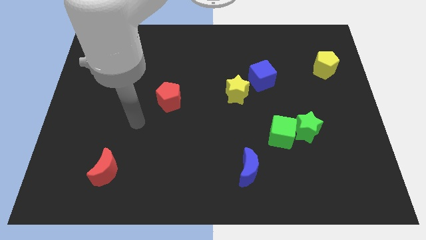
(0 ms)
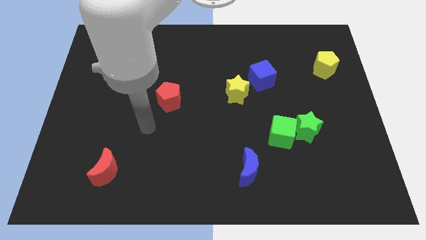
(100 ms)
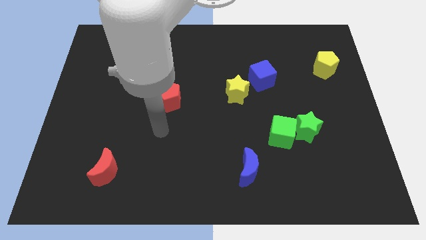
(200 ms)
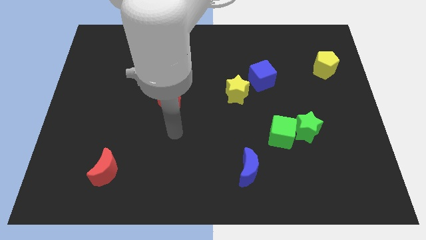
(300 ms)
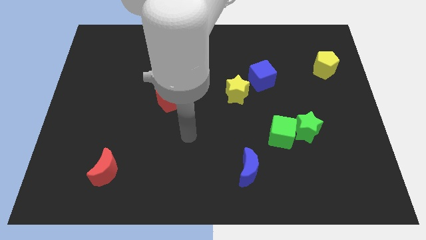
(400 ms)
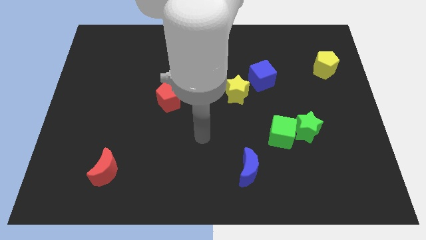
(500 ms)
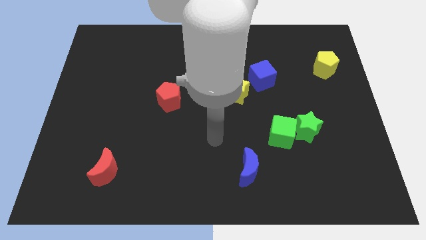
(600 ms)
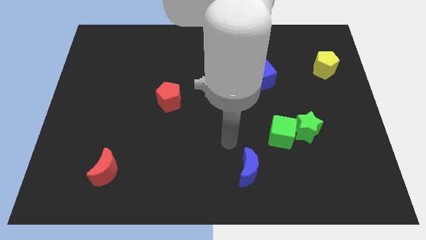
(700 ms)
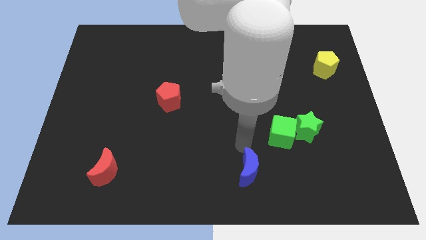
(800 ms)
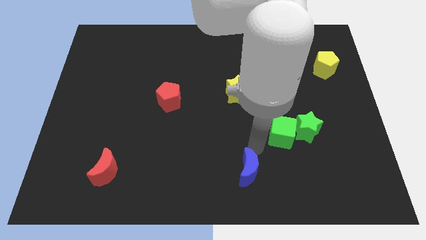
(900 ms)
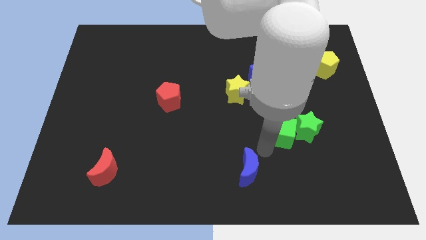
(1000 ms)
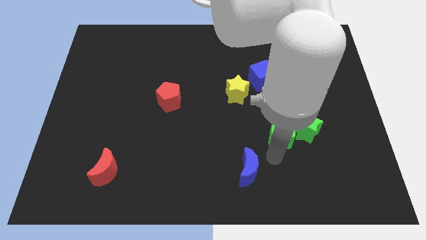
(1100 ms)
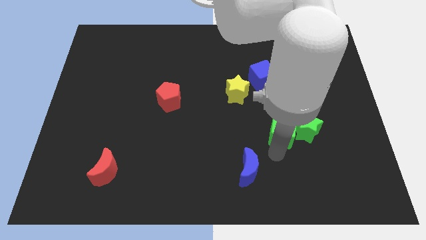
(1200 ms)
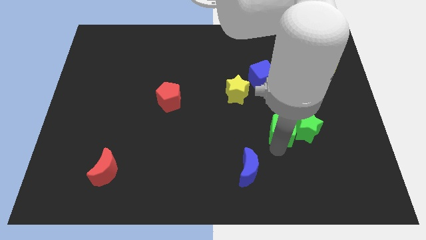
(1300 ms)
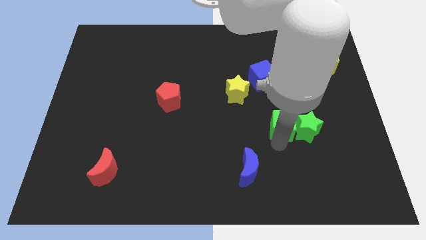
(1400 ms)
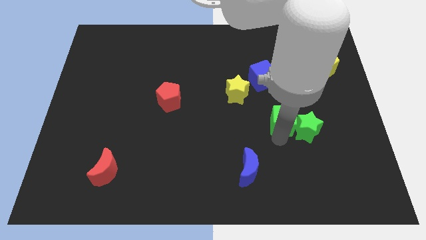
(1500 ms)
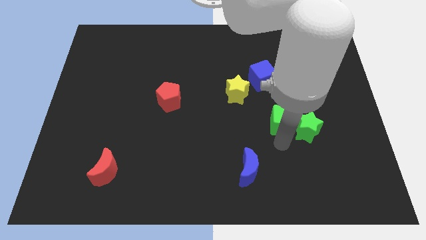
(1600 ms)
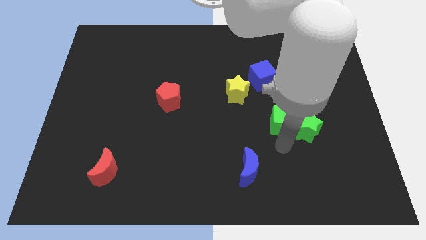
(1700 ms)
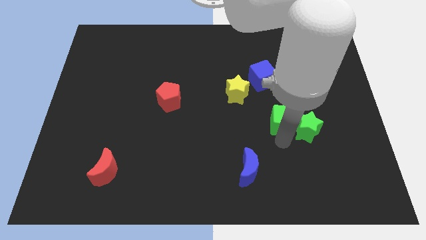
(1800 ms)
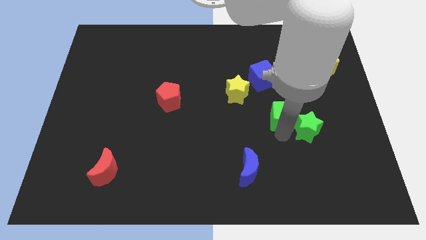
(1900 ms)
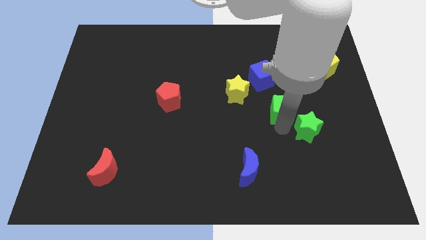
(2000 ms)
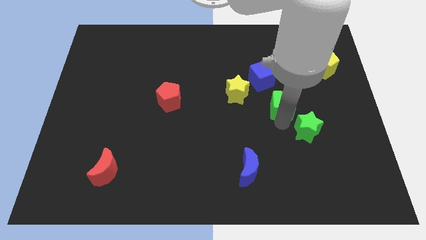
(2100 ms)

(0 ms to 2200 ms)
slightly move the green cube up

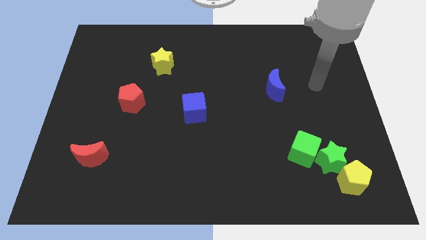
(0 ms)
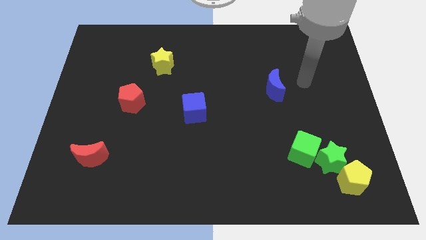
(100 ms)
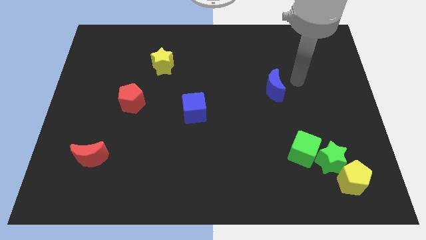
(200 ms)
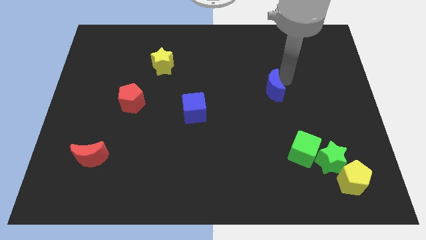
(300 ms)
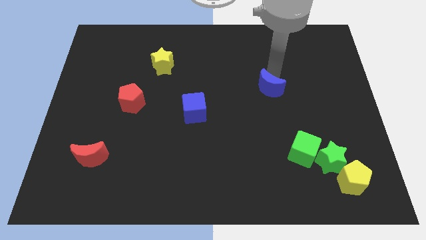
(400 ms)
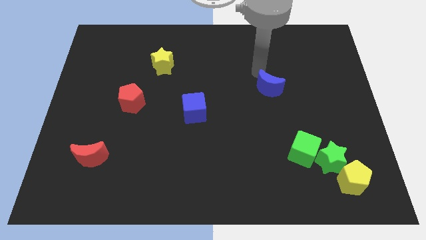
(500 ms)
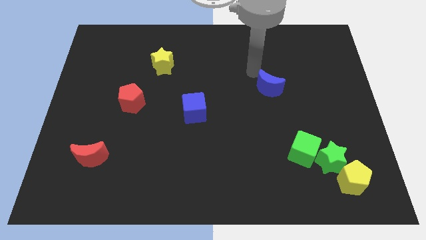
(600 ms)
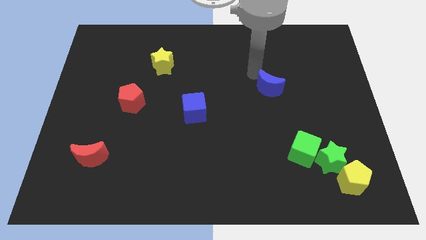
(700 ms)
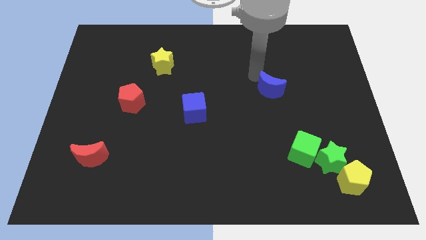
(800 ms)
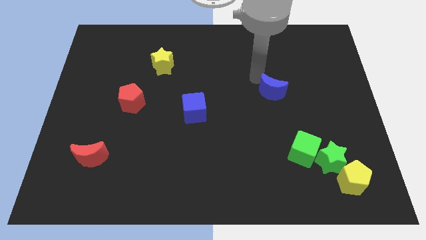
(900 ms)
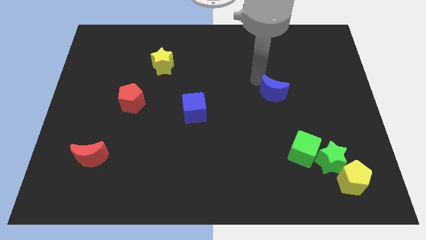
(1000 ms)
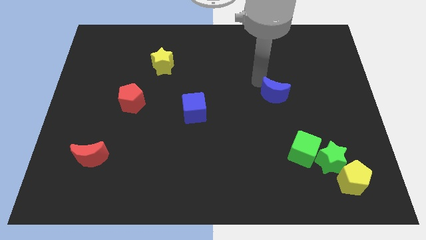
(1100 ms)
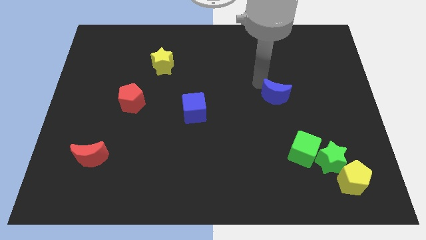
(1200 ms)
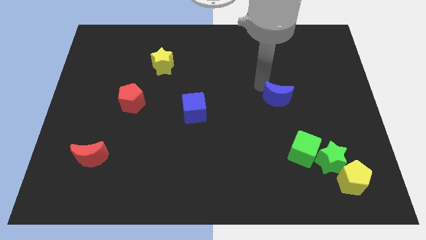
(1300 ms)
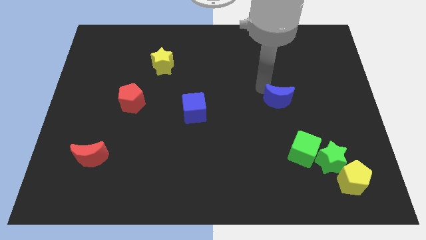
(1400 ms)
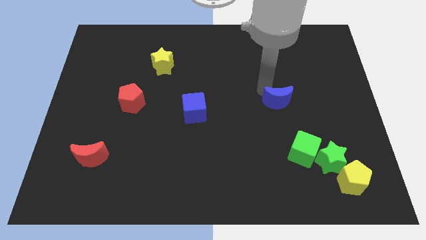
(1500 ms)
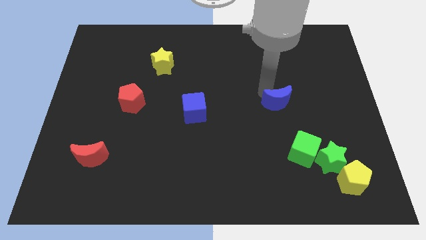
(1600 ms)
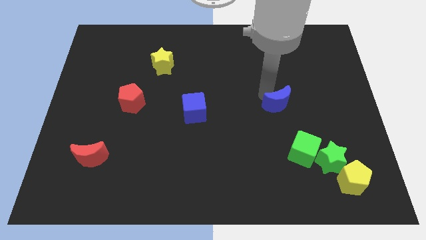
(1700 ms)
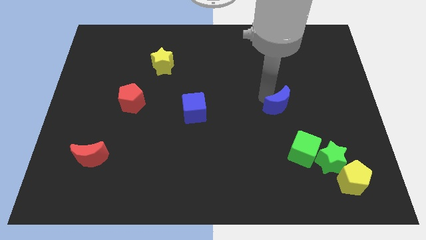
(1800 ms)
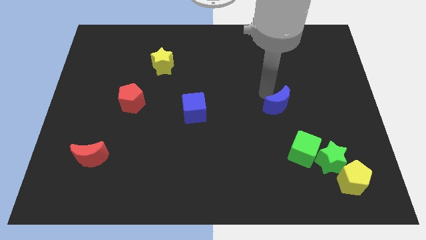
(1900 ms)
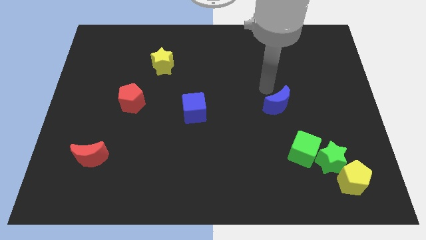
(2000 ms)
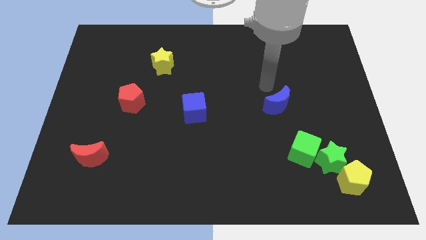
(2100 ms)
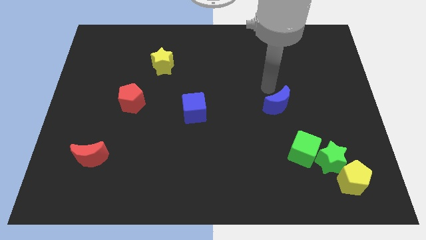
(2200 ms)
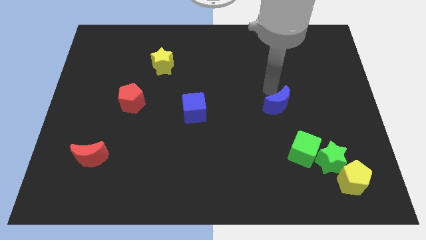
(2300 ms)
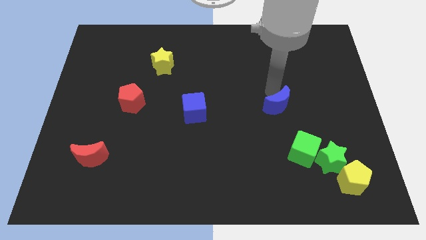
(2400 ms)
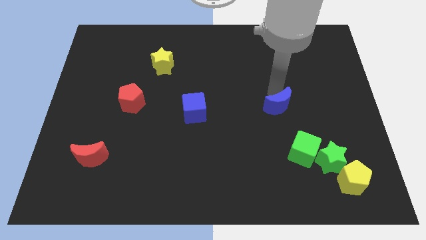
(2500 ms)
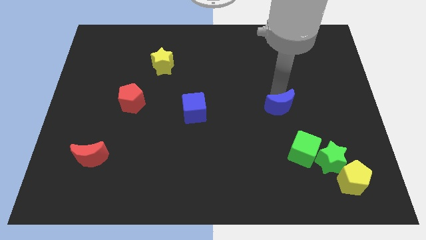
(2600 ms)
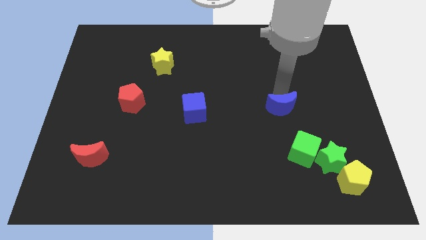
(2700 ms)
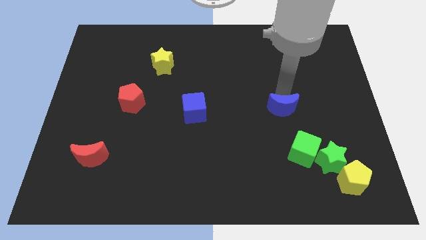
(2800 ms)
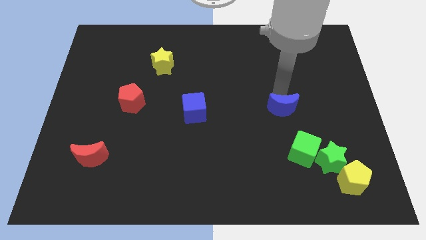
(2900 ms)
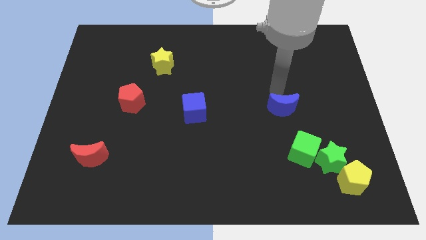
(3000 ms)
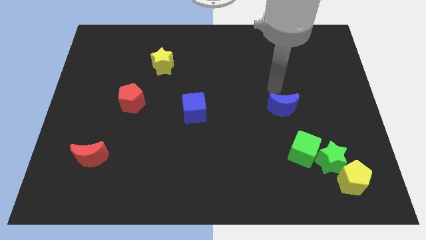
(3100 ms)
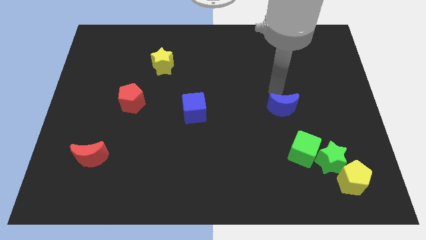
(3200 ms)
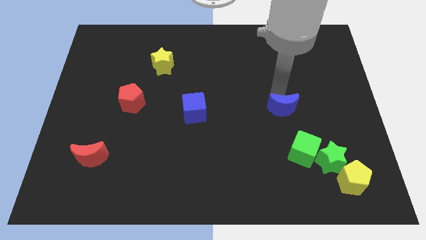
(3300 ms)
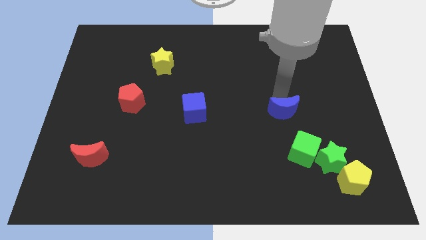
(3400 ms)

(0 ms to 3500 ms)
push the blue moon down somewhat

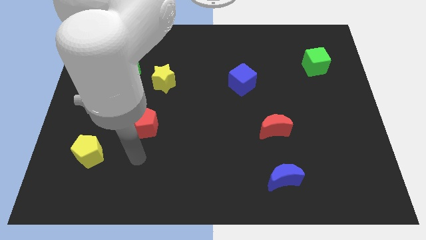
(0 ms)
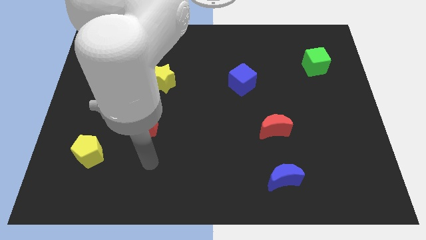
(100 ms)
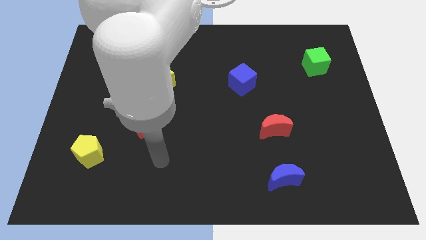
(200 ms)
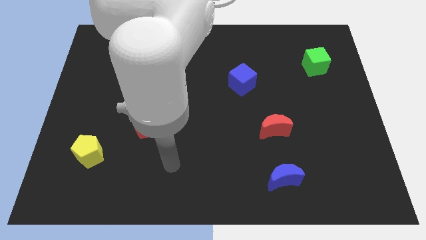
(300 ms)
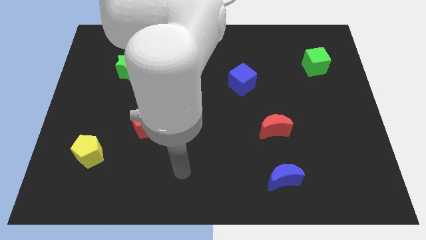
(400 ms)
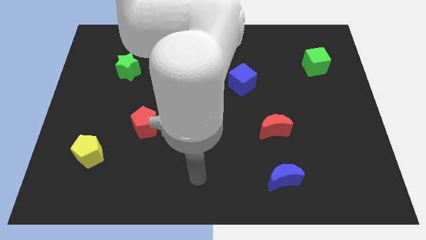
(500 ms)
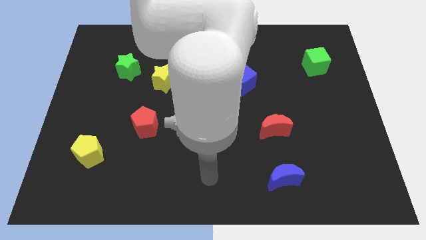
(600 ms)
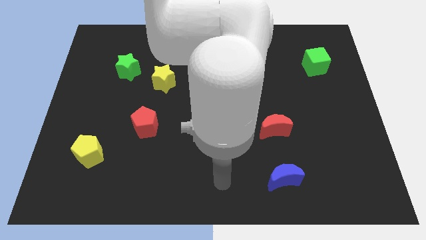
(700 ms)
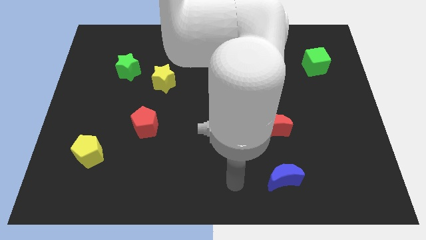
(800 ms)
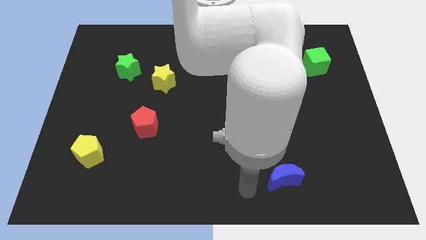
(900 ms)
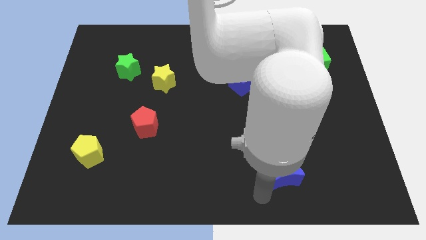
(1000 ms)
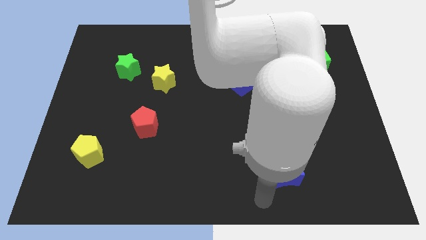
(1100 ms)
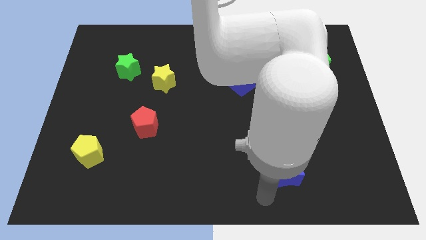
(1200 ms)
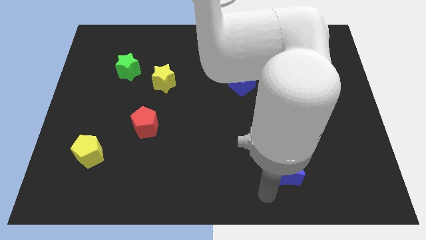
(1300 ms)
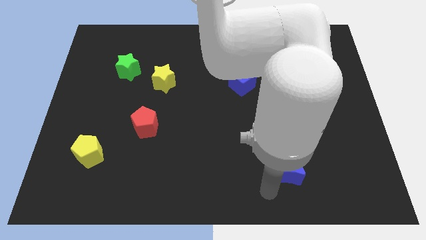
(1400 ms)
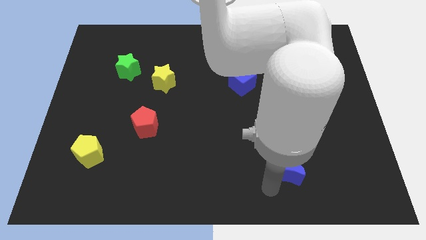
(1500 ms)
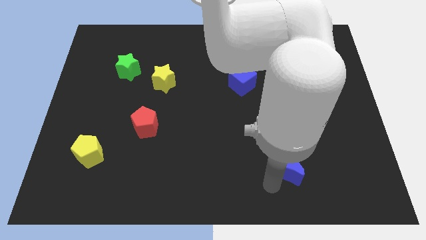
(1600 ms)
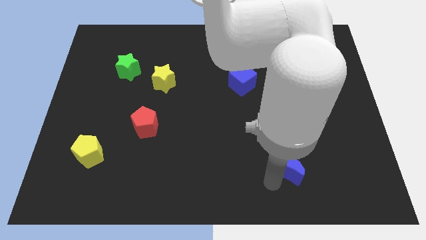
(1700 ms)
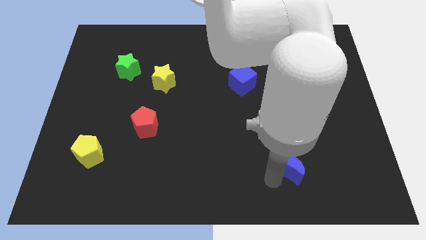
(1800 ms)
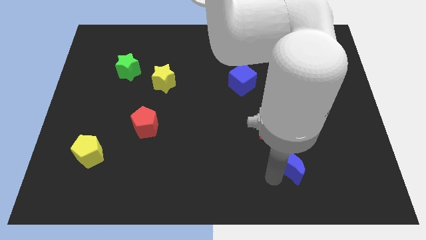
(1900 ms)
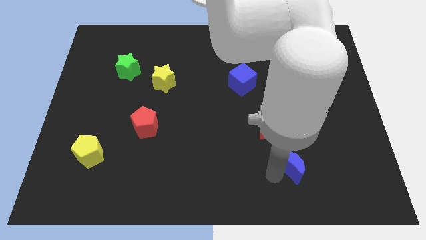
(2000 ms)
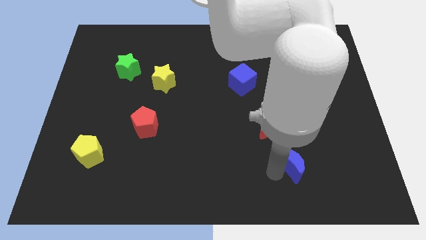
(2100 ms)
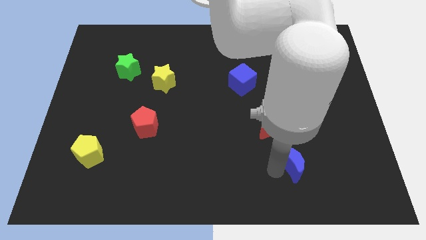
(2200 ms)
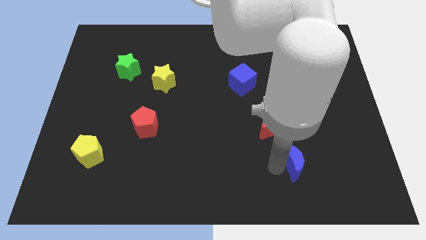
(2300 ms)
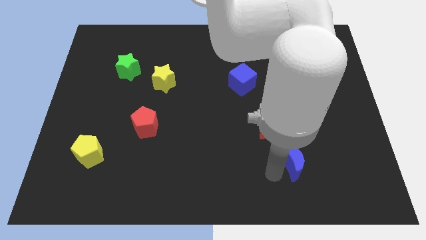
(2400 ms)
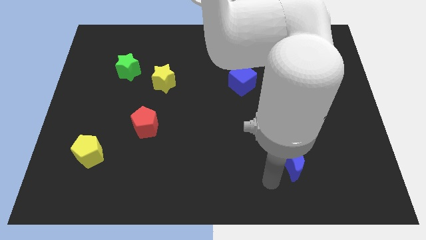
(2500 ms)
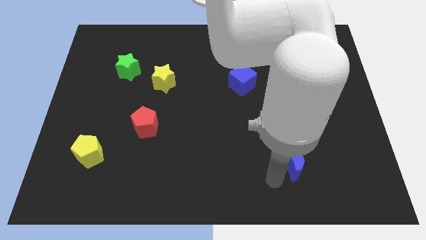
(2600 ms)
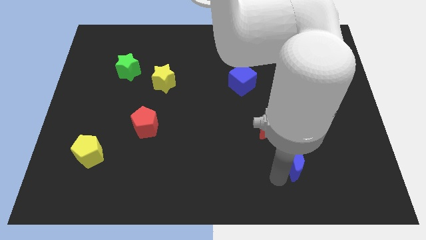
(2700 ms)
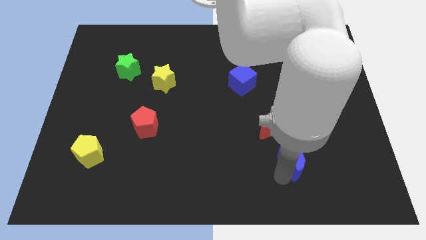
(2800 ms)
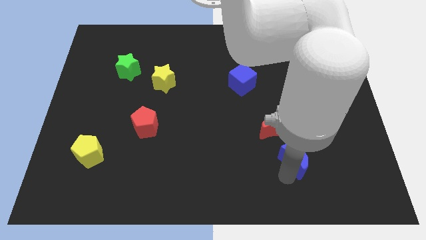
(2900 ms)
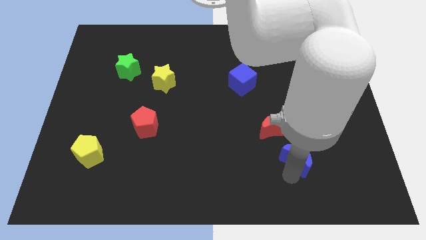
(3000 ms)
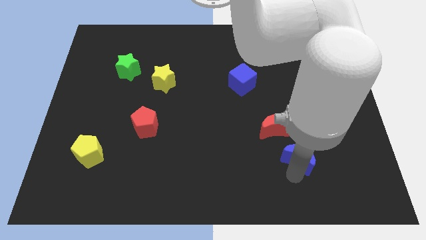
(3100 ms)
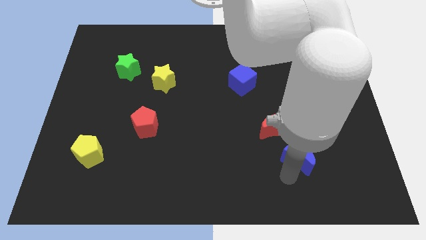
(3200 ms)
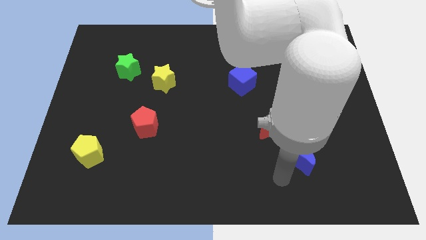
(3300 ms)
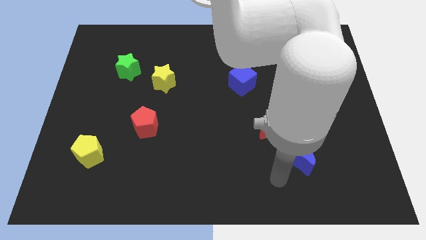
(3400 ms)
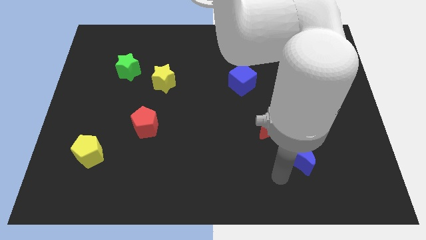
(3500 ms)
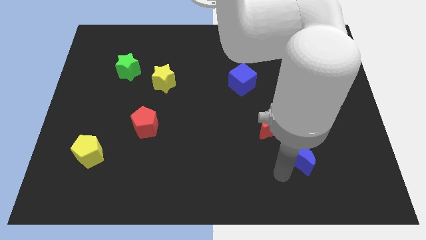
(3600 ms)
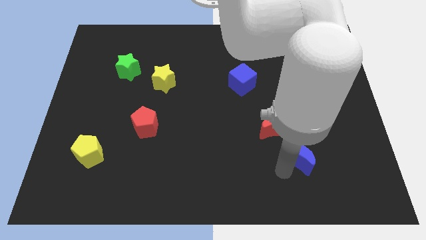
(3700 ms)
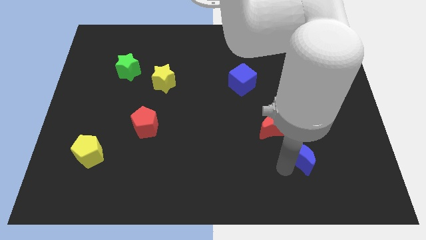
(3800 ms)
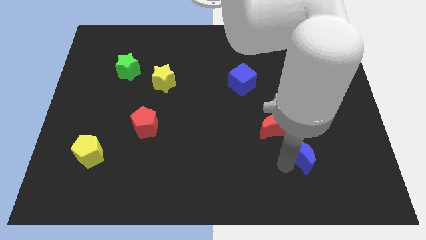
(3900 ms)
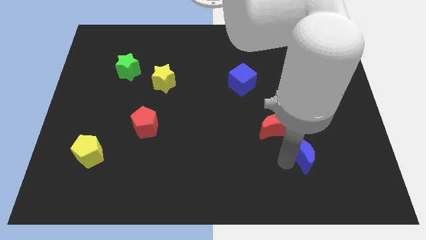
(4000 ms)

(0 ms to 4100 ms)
move the blue moon somewhat up and then to the right
